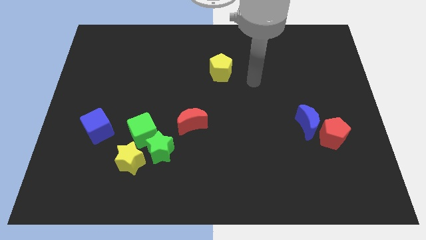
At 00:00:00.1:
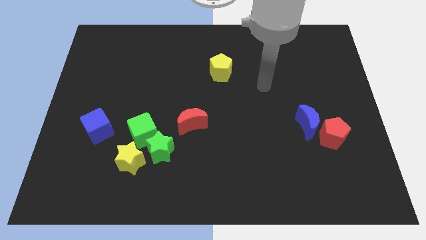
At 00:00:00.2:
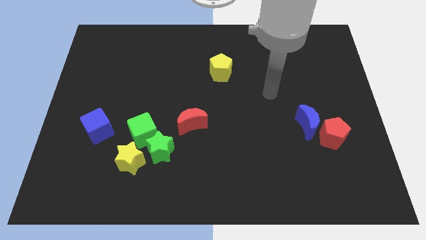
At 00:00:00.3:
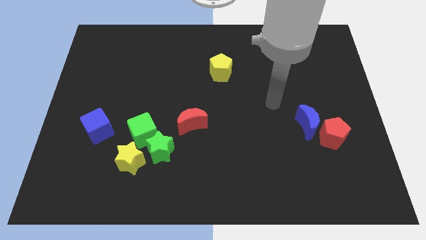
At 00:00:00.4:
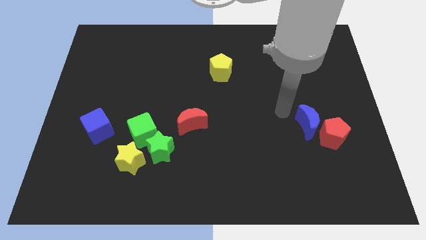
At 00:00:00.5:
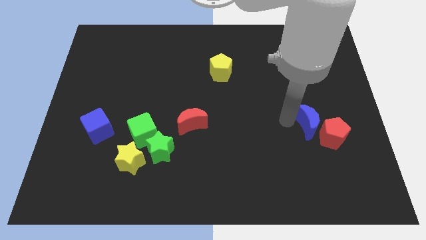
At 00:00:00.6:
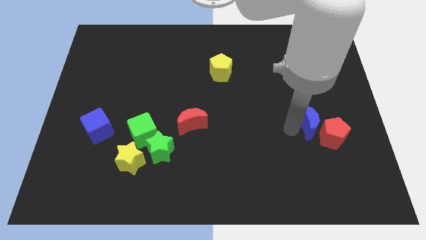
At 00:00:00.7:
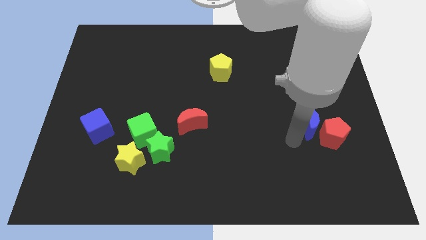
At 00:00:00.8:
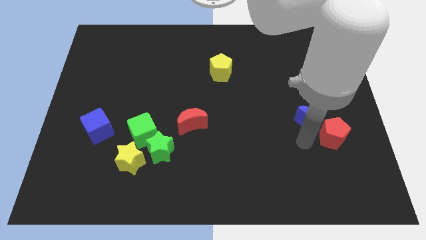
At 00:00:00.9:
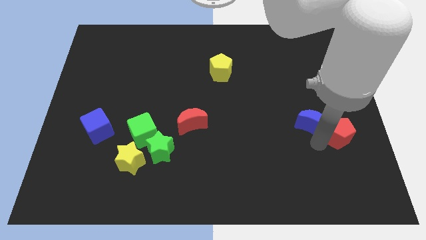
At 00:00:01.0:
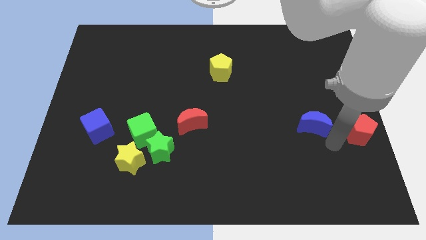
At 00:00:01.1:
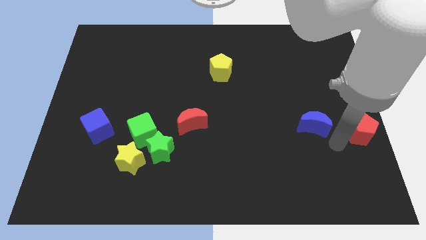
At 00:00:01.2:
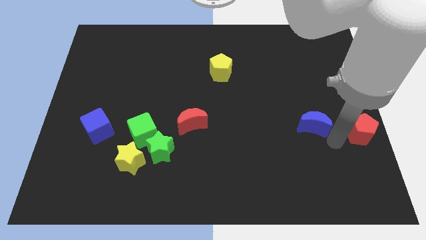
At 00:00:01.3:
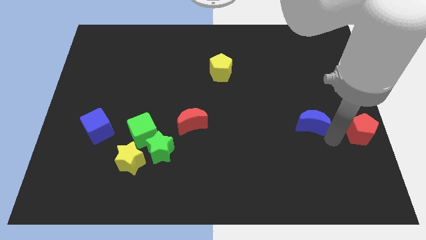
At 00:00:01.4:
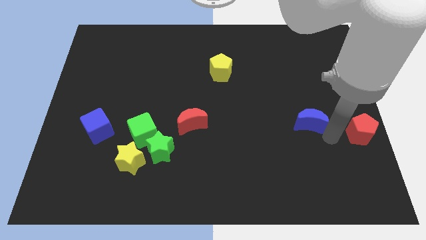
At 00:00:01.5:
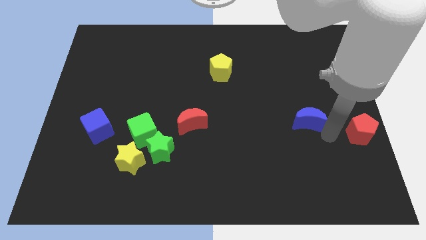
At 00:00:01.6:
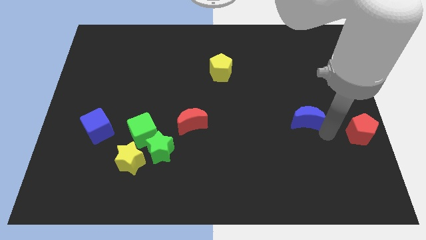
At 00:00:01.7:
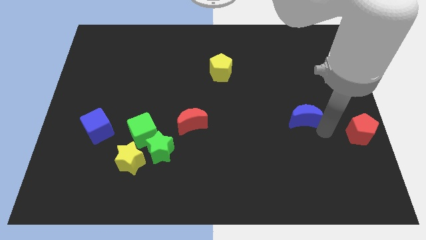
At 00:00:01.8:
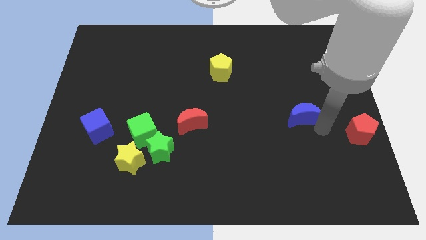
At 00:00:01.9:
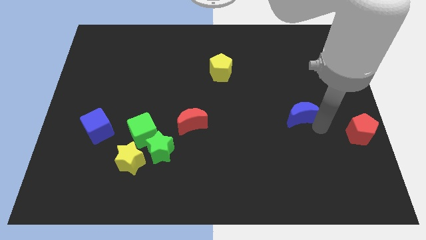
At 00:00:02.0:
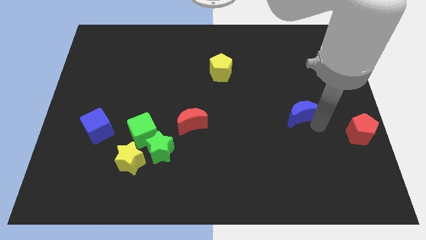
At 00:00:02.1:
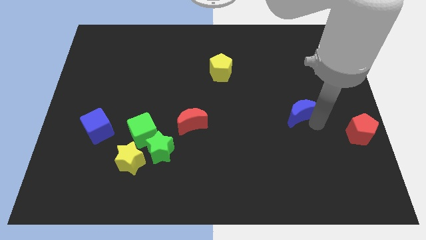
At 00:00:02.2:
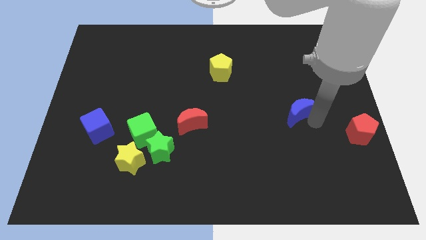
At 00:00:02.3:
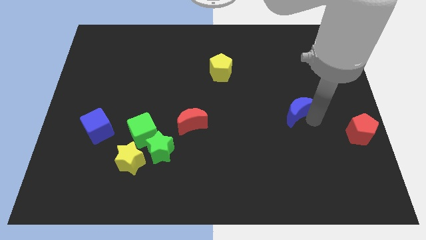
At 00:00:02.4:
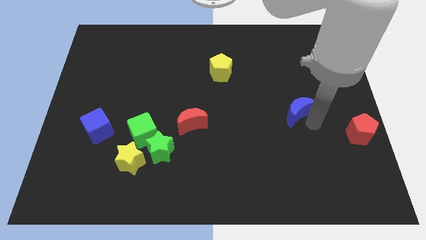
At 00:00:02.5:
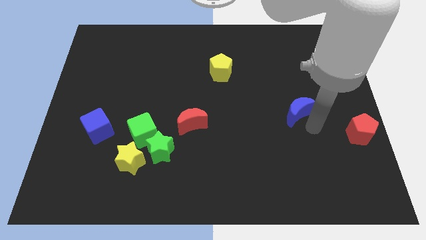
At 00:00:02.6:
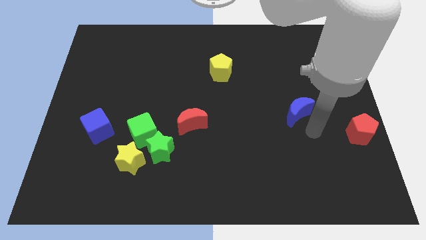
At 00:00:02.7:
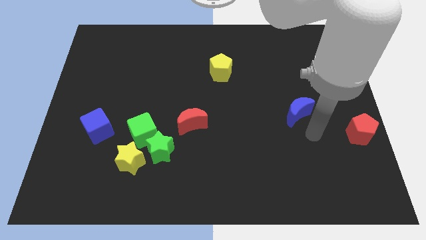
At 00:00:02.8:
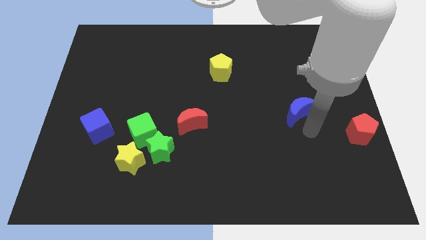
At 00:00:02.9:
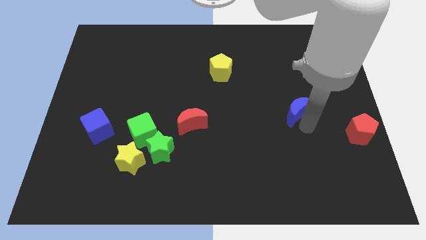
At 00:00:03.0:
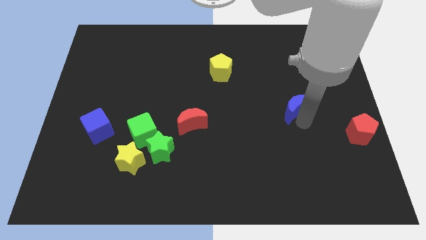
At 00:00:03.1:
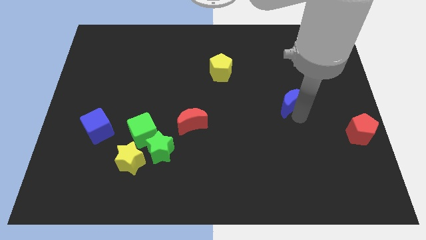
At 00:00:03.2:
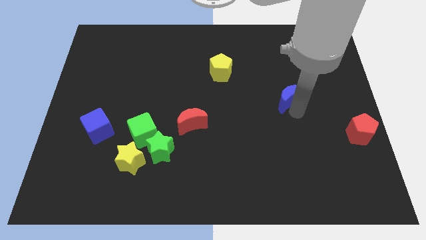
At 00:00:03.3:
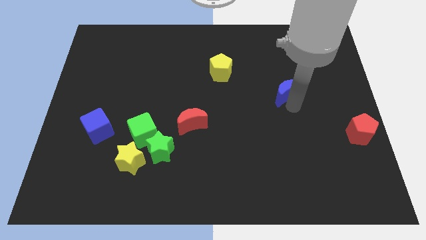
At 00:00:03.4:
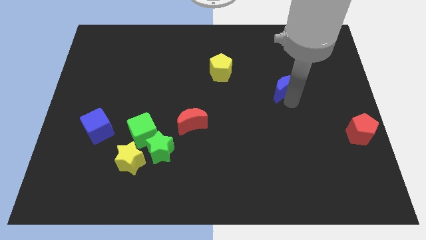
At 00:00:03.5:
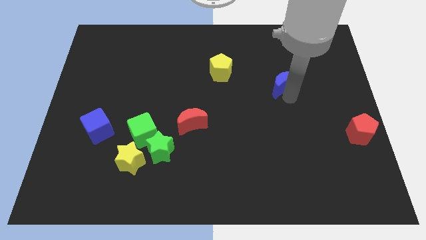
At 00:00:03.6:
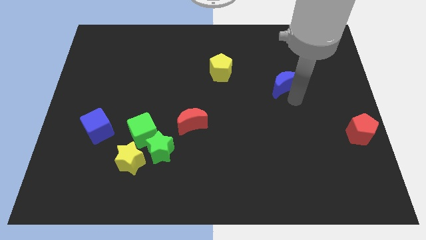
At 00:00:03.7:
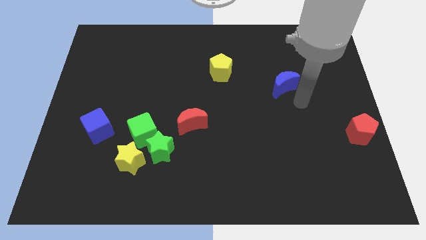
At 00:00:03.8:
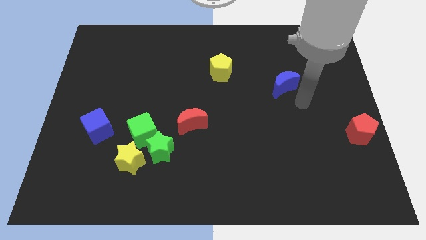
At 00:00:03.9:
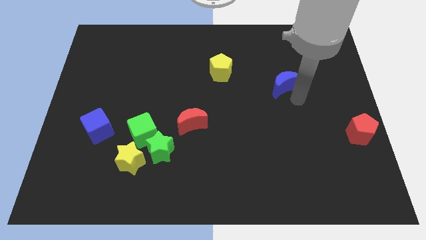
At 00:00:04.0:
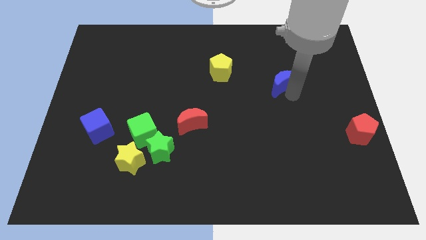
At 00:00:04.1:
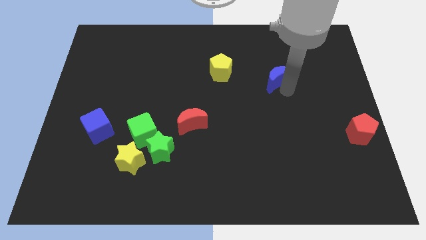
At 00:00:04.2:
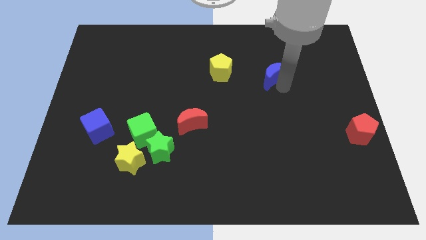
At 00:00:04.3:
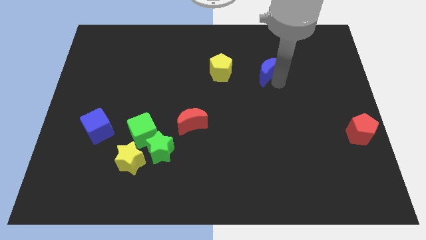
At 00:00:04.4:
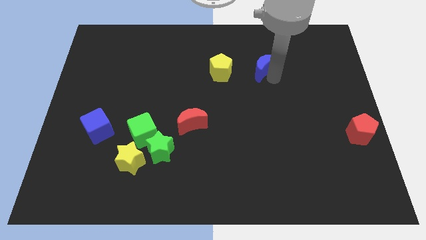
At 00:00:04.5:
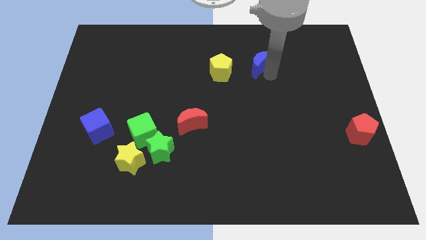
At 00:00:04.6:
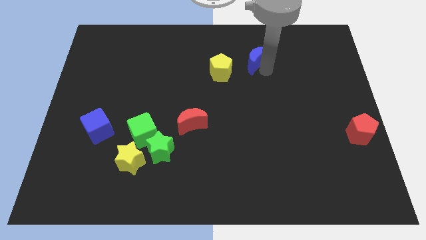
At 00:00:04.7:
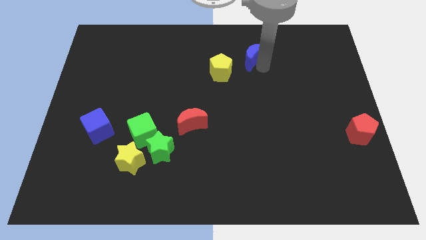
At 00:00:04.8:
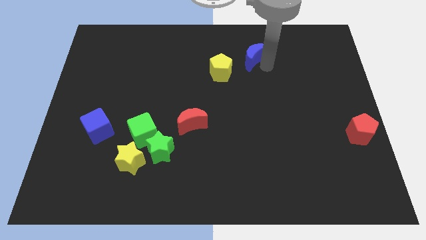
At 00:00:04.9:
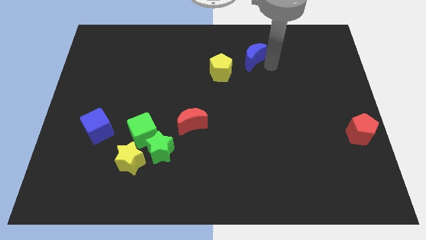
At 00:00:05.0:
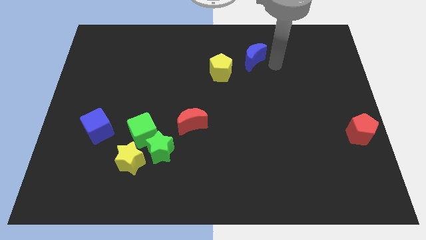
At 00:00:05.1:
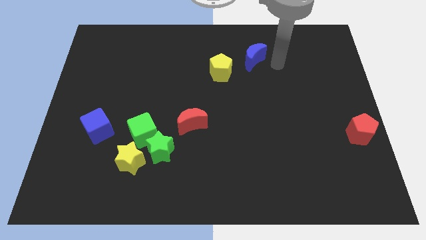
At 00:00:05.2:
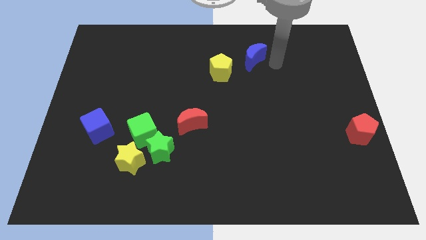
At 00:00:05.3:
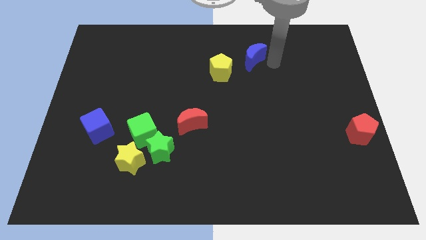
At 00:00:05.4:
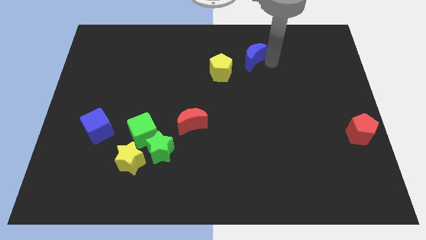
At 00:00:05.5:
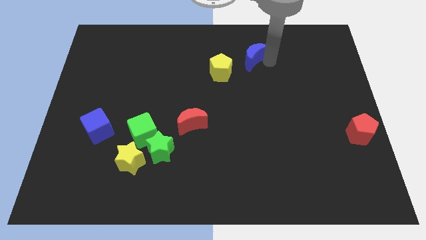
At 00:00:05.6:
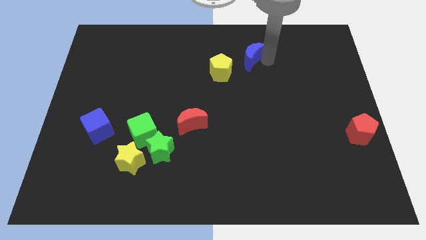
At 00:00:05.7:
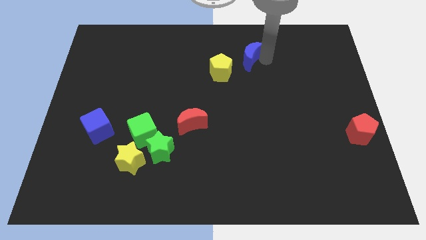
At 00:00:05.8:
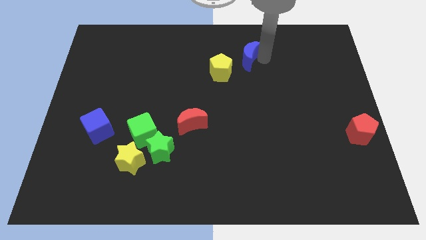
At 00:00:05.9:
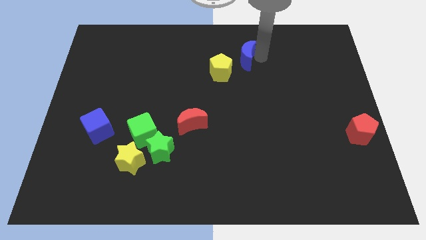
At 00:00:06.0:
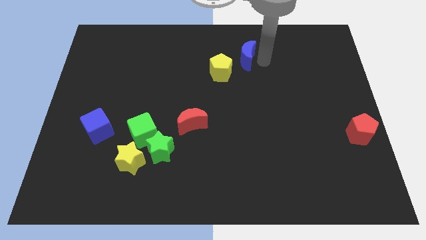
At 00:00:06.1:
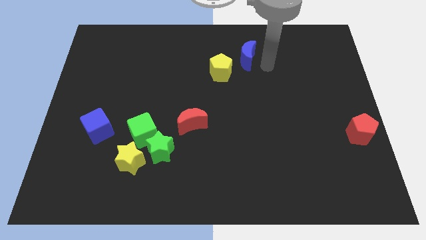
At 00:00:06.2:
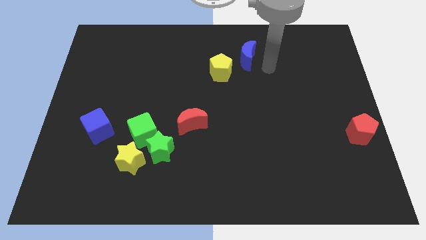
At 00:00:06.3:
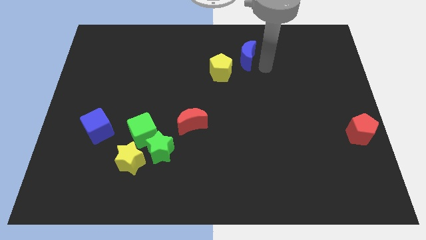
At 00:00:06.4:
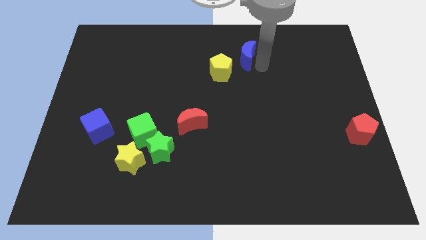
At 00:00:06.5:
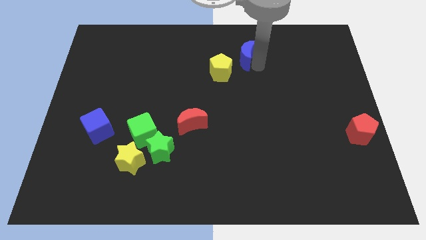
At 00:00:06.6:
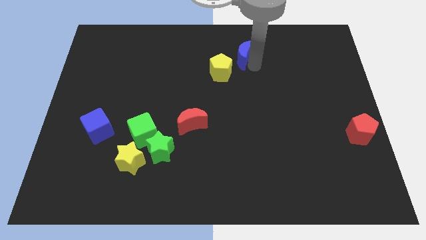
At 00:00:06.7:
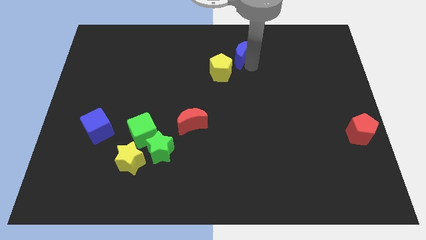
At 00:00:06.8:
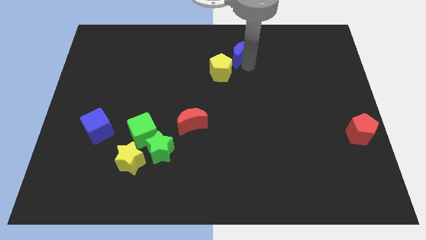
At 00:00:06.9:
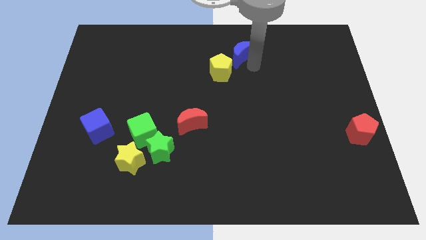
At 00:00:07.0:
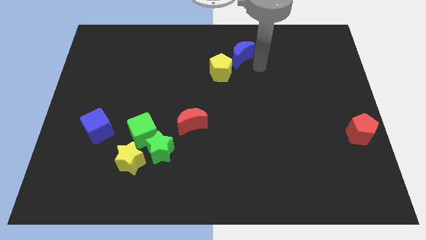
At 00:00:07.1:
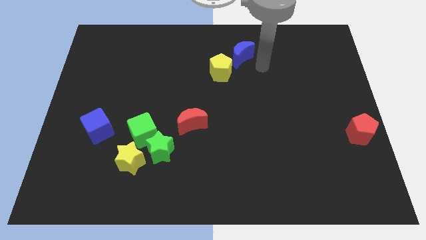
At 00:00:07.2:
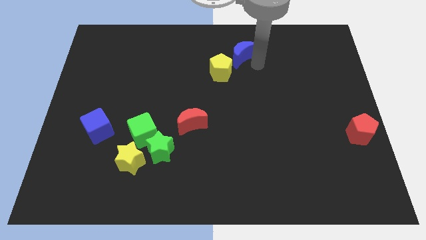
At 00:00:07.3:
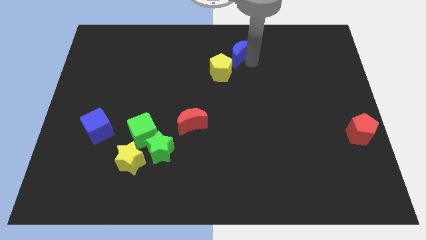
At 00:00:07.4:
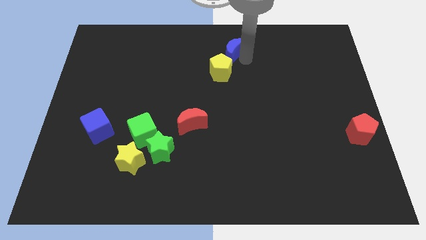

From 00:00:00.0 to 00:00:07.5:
put the blue moon to the towards your base
